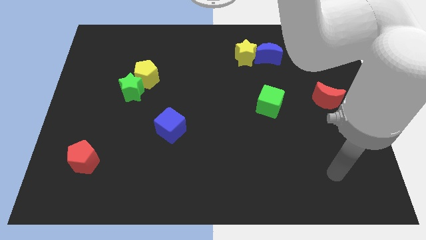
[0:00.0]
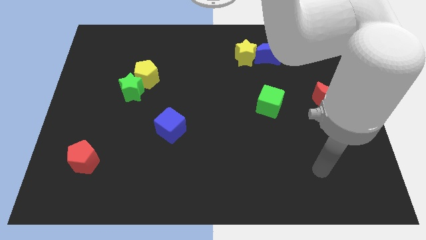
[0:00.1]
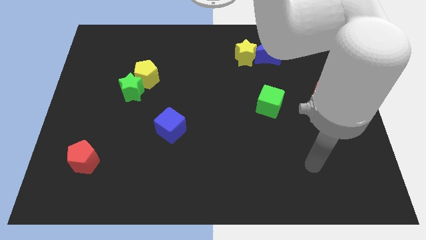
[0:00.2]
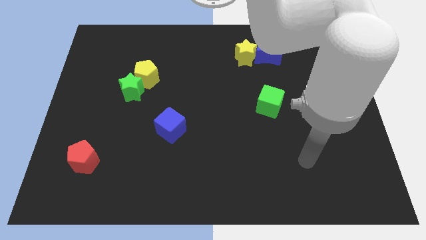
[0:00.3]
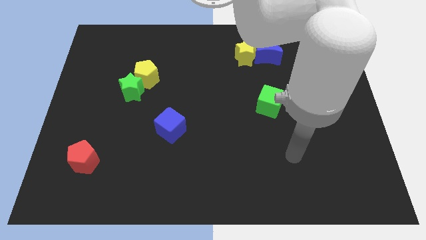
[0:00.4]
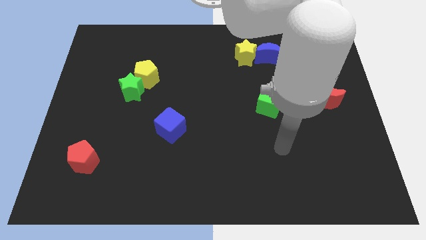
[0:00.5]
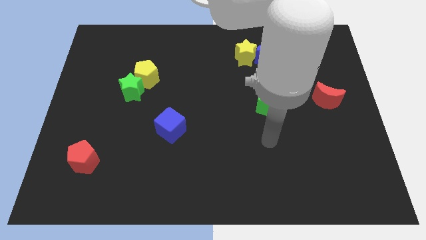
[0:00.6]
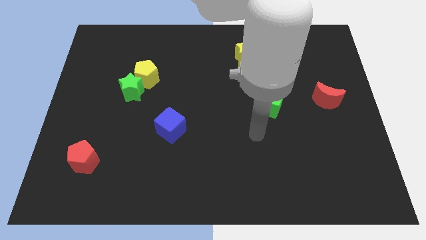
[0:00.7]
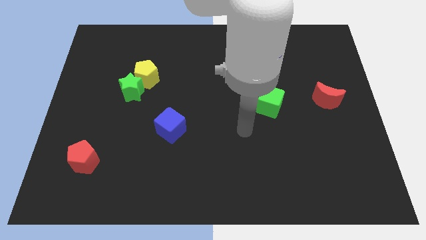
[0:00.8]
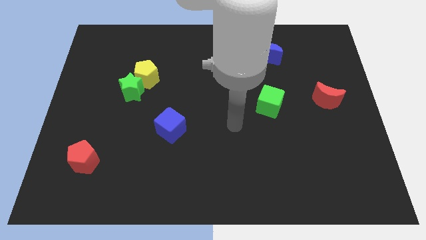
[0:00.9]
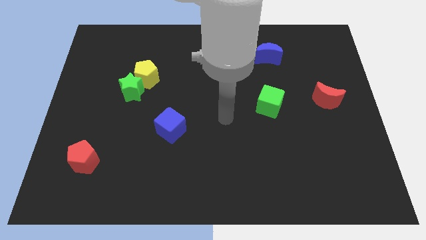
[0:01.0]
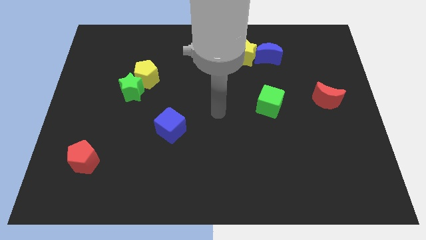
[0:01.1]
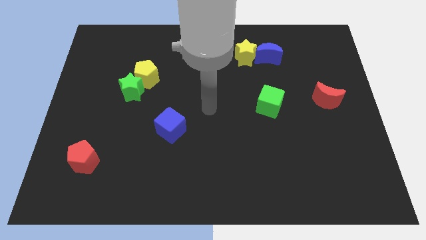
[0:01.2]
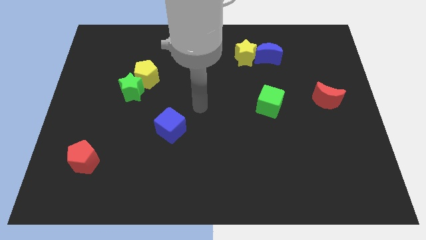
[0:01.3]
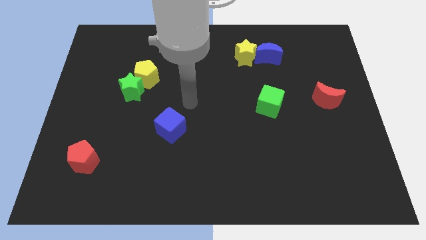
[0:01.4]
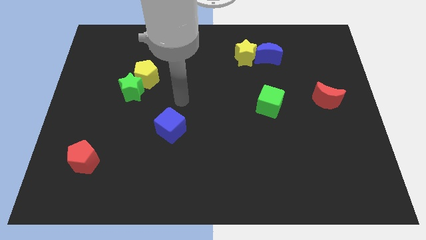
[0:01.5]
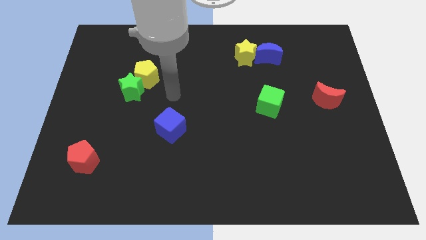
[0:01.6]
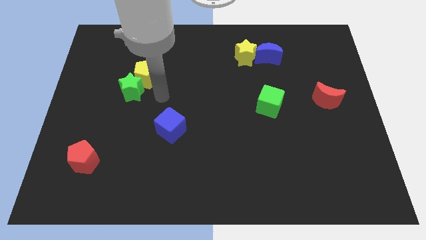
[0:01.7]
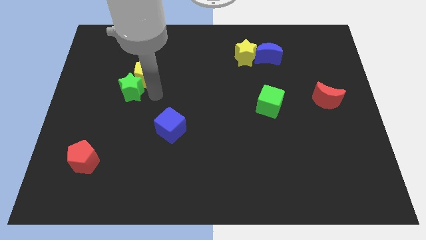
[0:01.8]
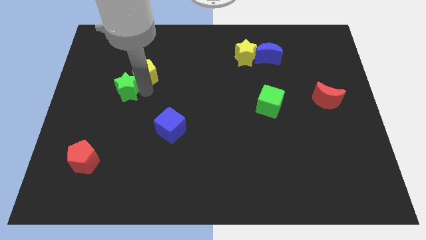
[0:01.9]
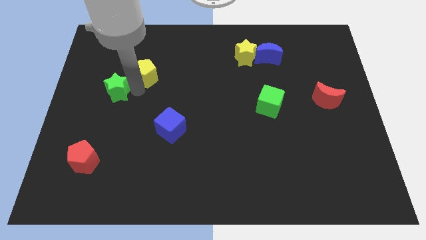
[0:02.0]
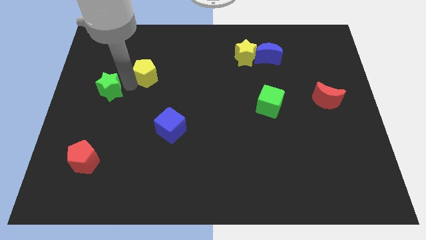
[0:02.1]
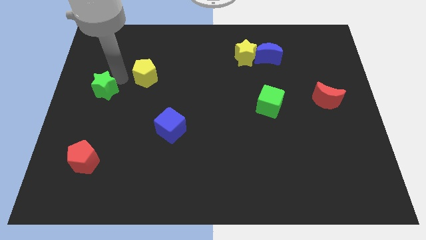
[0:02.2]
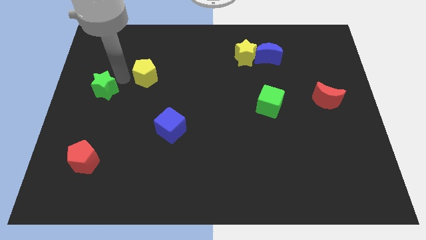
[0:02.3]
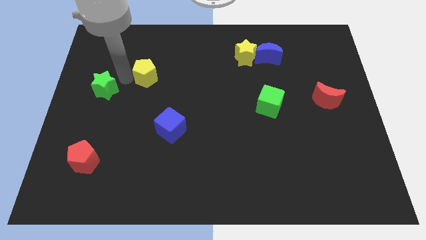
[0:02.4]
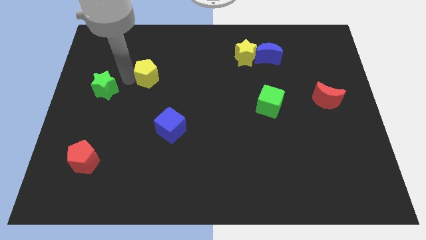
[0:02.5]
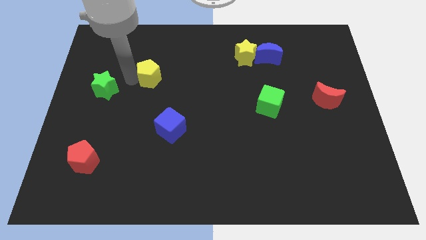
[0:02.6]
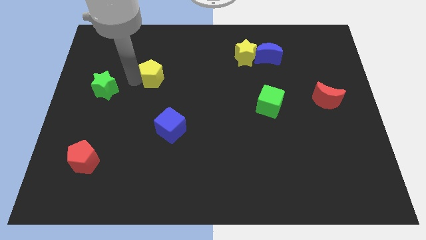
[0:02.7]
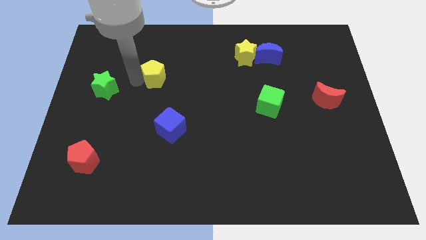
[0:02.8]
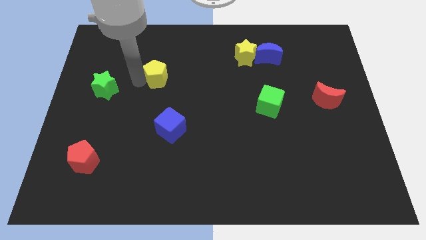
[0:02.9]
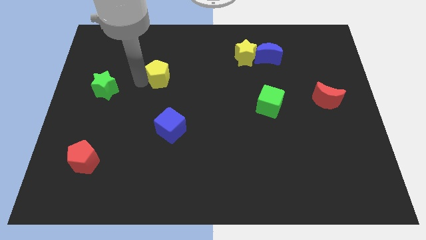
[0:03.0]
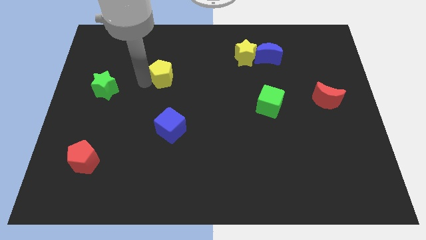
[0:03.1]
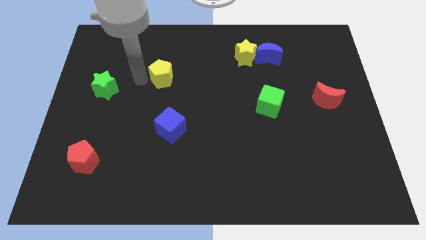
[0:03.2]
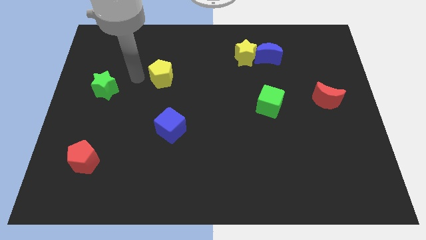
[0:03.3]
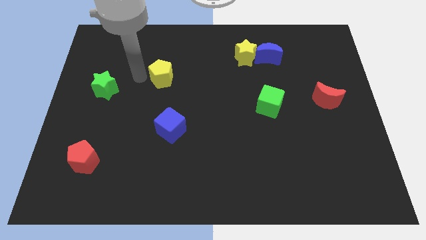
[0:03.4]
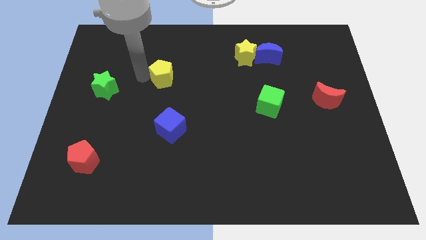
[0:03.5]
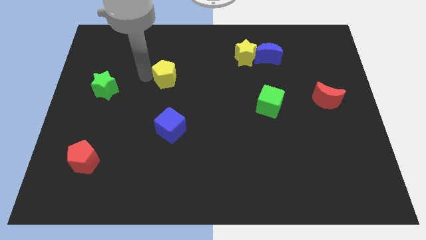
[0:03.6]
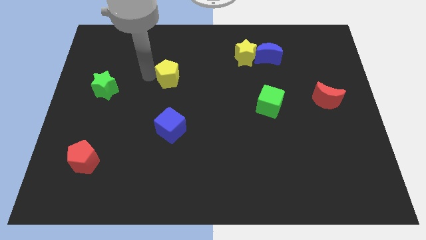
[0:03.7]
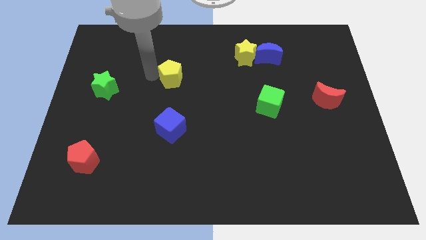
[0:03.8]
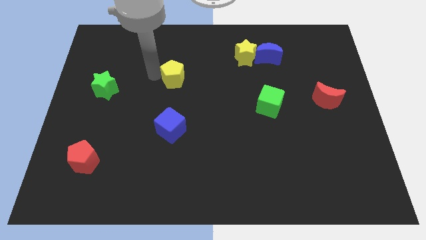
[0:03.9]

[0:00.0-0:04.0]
push the yellow pentagon to the right somewhat

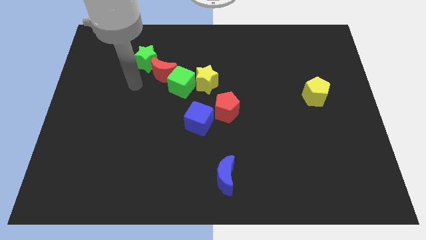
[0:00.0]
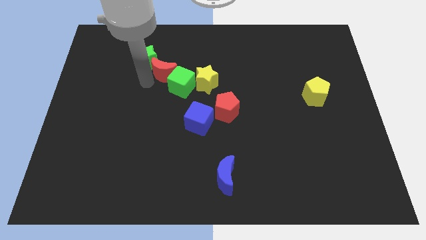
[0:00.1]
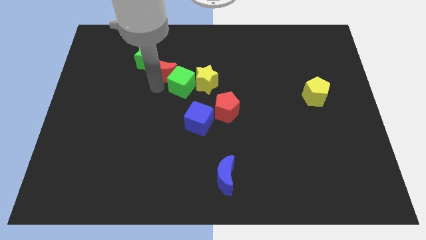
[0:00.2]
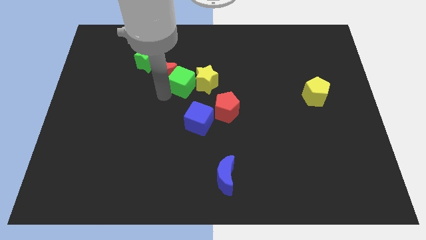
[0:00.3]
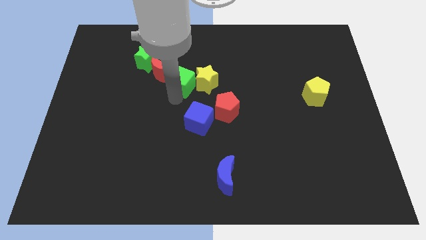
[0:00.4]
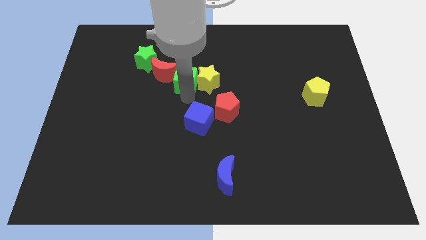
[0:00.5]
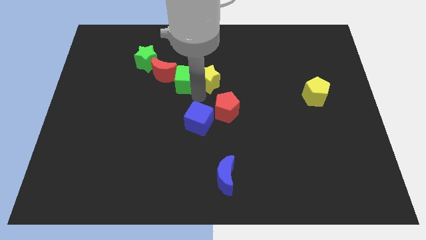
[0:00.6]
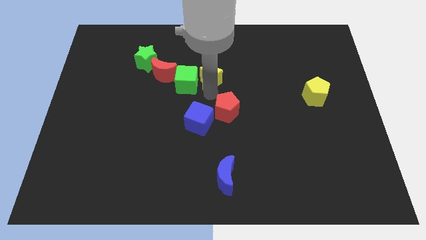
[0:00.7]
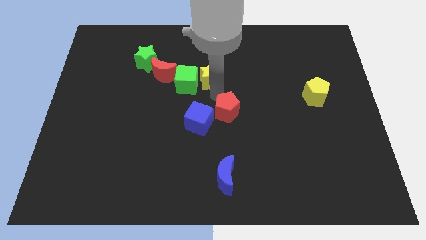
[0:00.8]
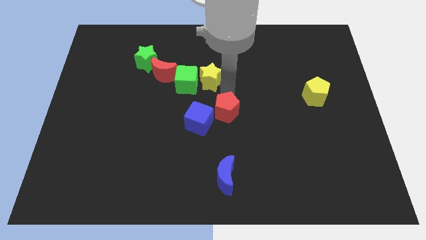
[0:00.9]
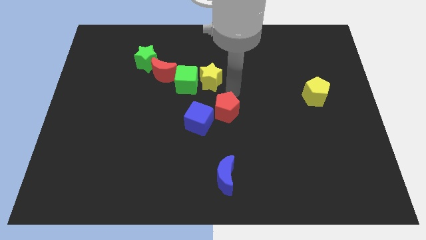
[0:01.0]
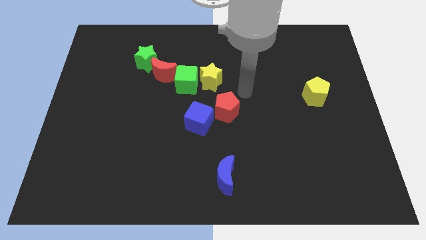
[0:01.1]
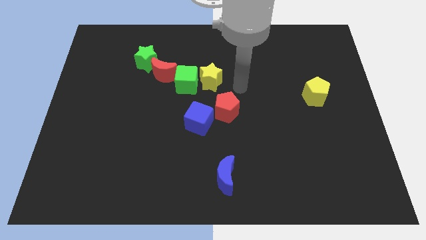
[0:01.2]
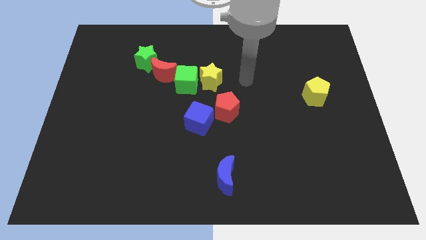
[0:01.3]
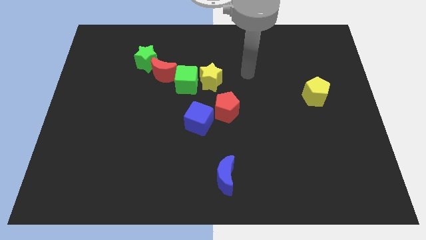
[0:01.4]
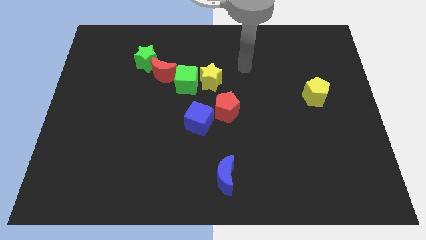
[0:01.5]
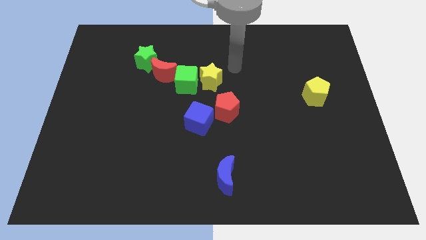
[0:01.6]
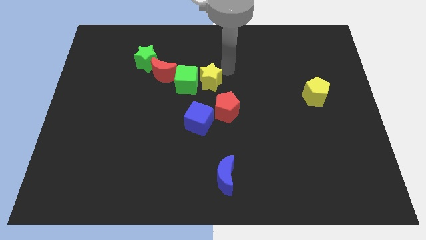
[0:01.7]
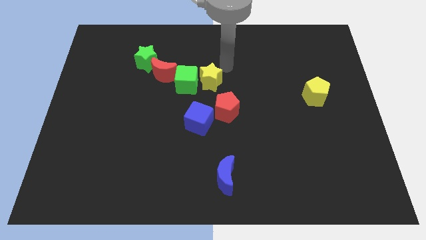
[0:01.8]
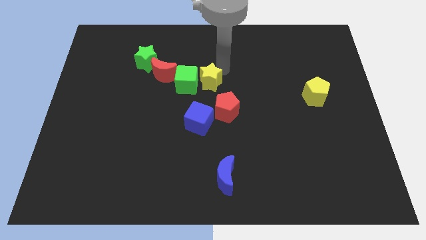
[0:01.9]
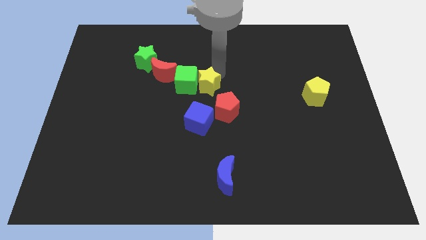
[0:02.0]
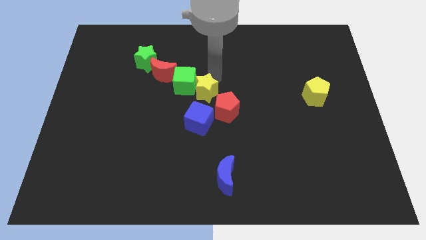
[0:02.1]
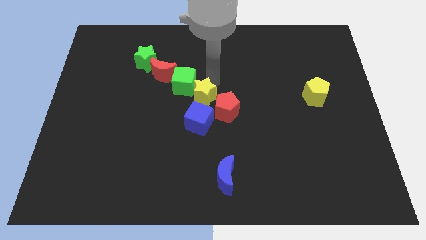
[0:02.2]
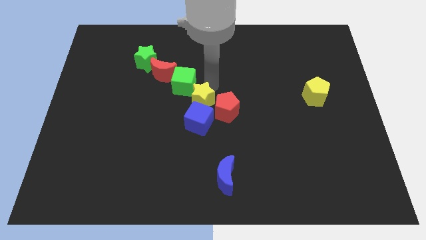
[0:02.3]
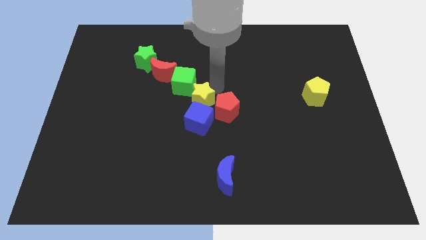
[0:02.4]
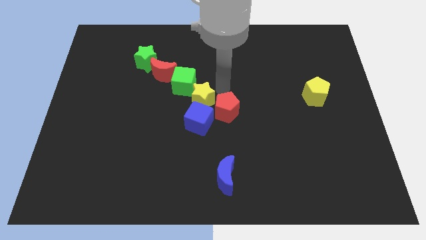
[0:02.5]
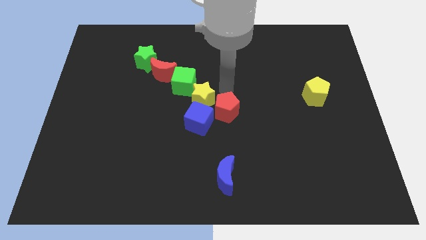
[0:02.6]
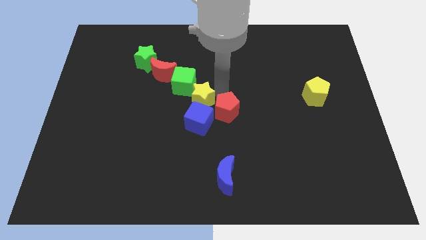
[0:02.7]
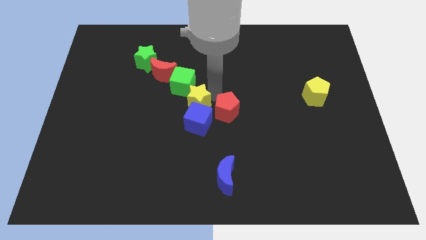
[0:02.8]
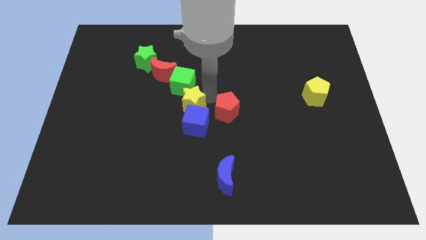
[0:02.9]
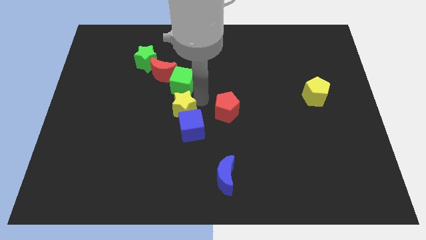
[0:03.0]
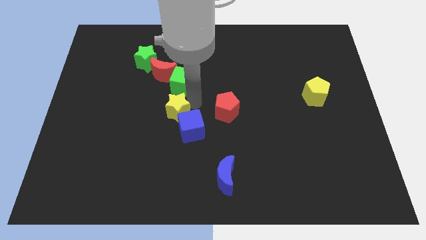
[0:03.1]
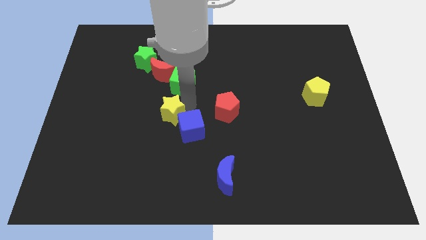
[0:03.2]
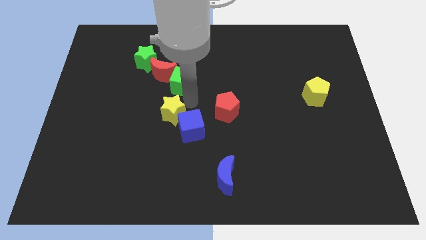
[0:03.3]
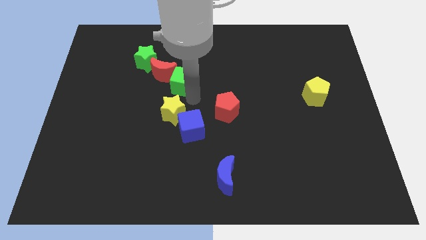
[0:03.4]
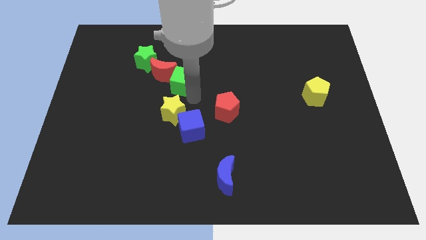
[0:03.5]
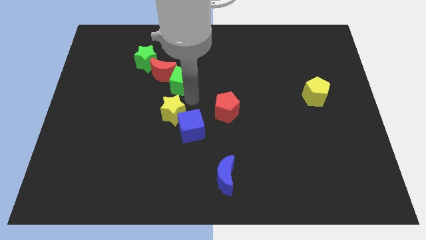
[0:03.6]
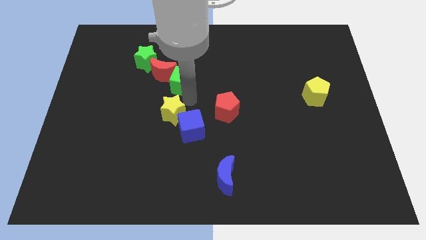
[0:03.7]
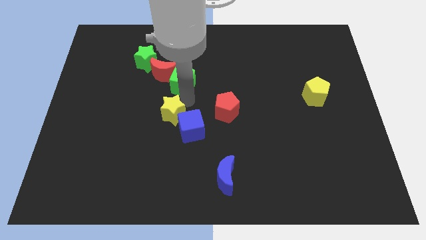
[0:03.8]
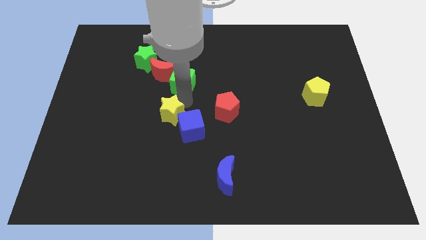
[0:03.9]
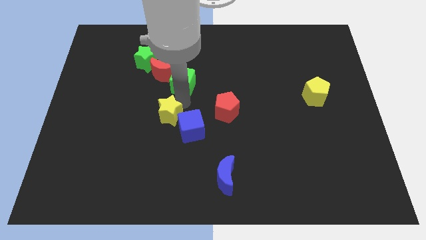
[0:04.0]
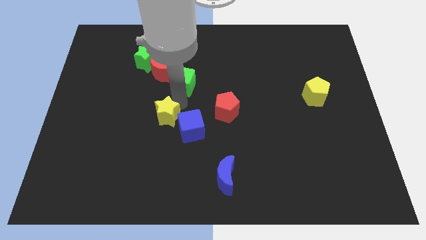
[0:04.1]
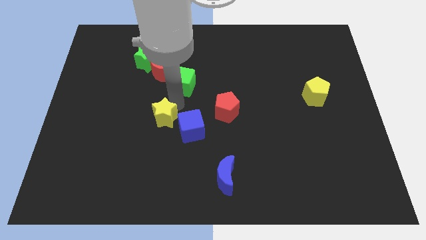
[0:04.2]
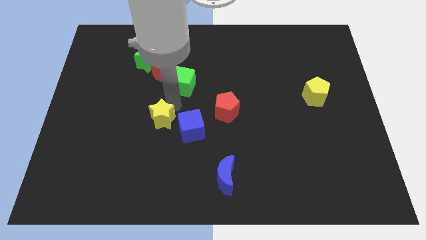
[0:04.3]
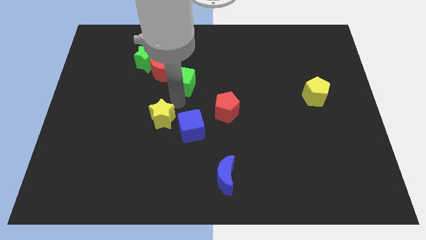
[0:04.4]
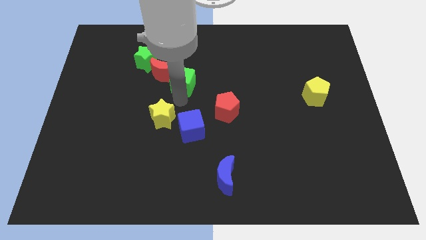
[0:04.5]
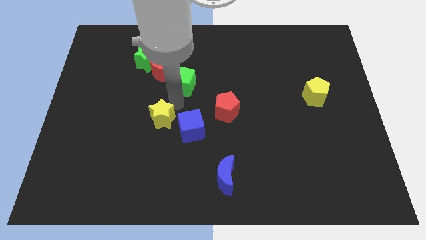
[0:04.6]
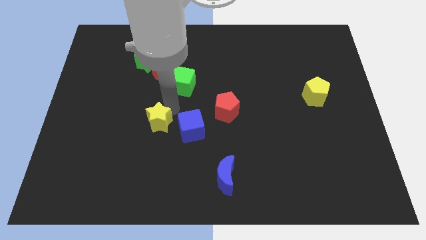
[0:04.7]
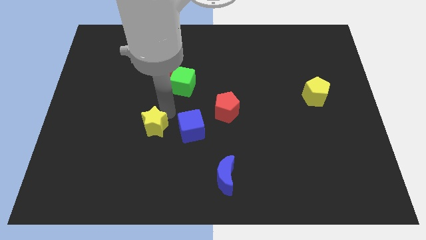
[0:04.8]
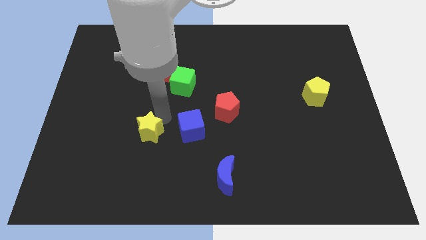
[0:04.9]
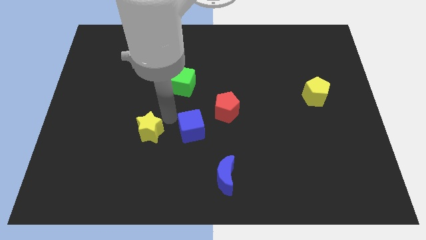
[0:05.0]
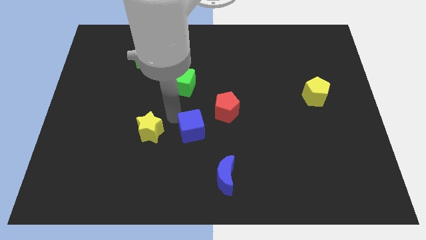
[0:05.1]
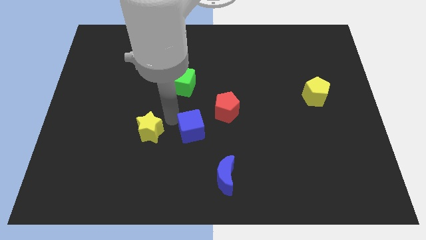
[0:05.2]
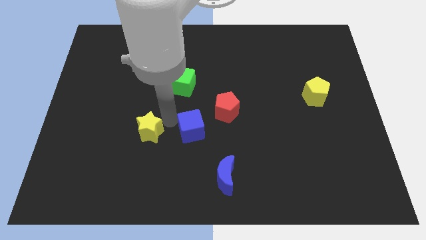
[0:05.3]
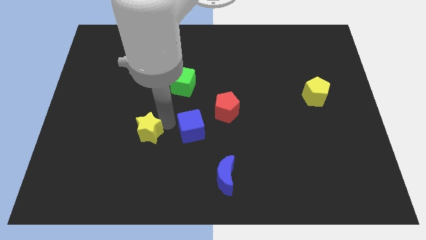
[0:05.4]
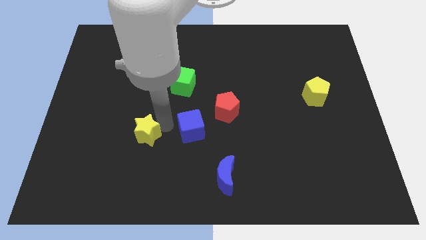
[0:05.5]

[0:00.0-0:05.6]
push the yellow star downwards and then to the left
